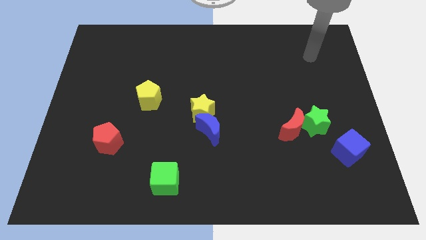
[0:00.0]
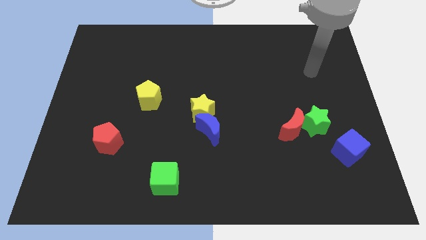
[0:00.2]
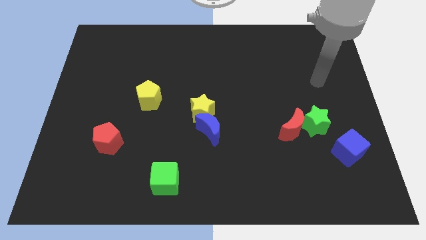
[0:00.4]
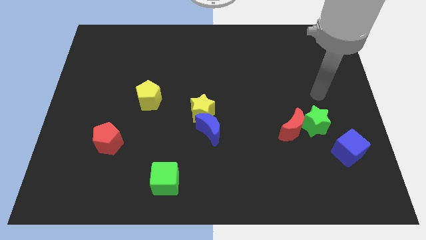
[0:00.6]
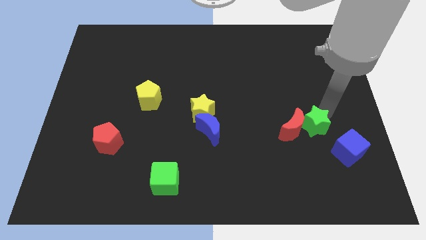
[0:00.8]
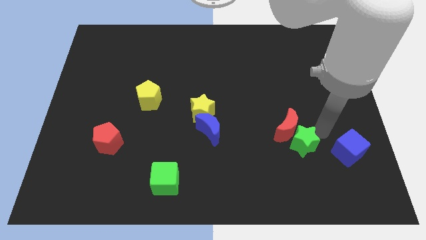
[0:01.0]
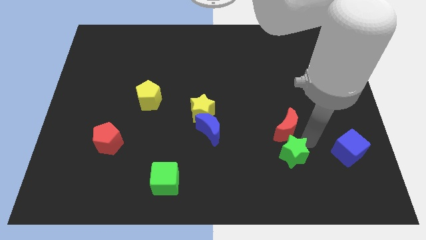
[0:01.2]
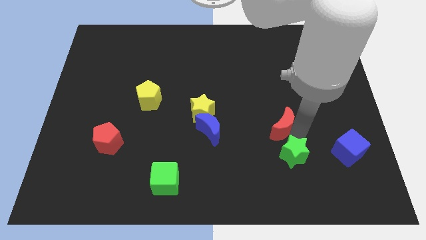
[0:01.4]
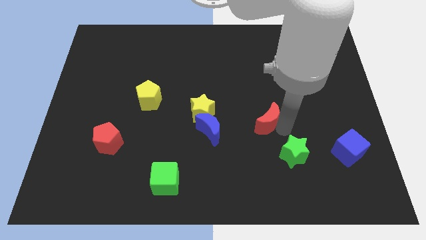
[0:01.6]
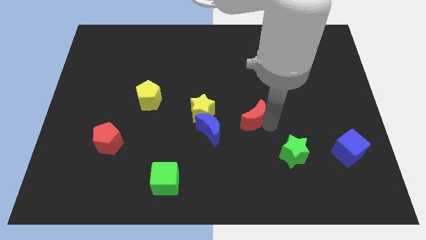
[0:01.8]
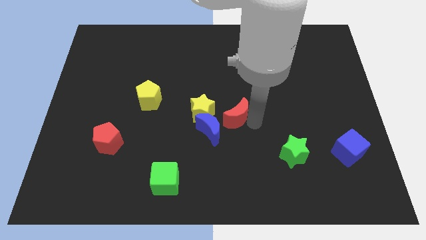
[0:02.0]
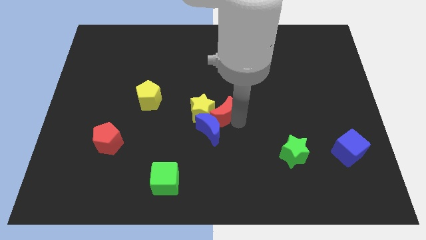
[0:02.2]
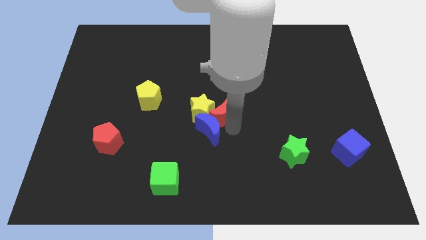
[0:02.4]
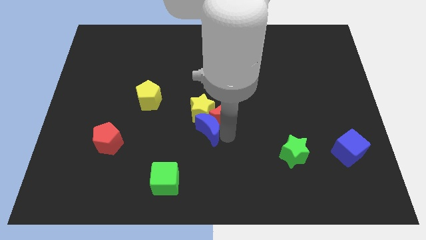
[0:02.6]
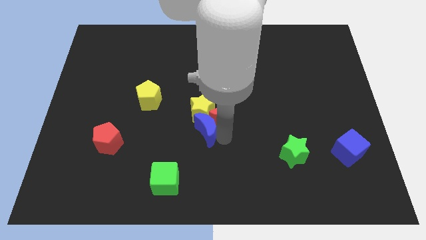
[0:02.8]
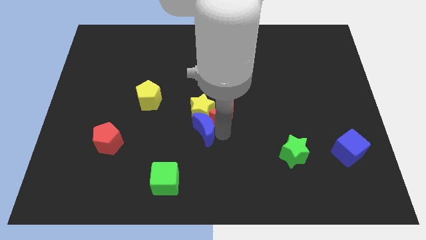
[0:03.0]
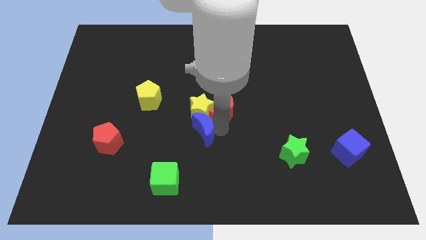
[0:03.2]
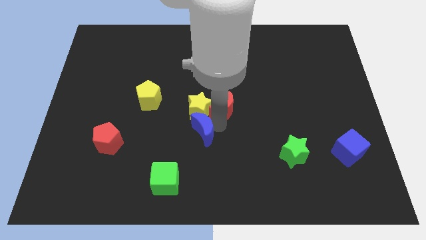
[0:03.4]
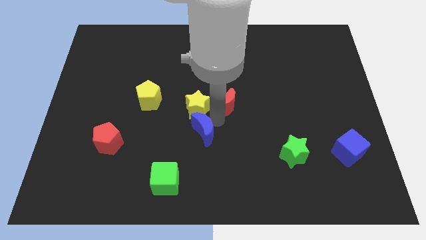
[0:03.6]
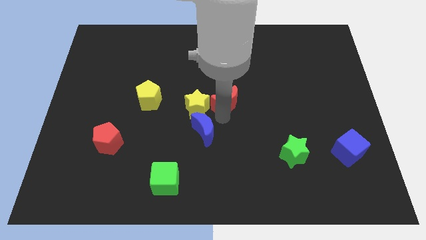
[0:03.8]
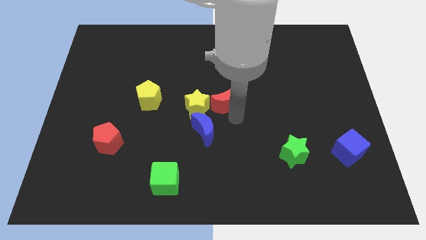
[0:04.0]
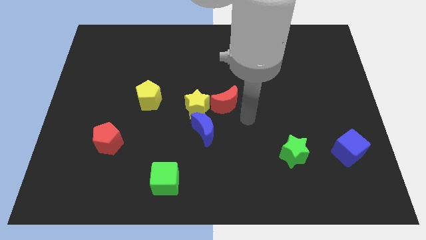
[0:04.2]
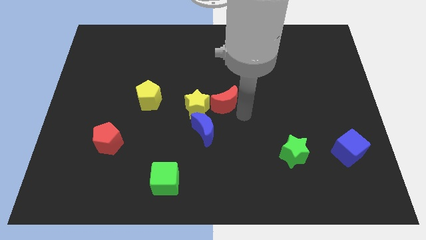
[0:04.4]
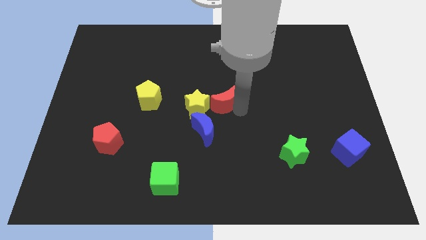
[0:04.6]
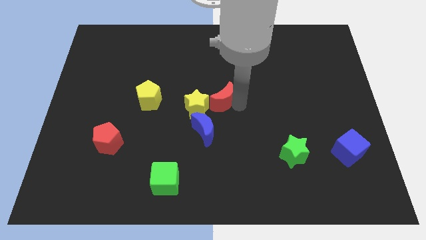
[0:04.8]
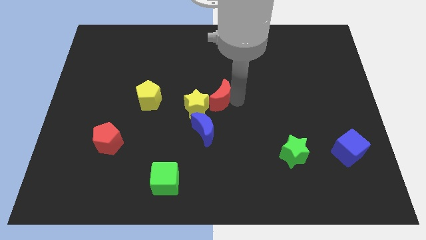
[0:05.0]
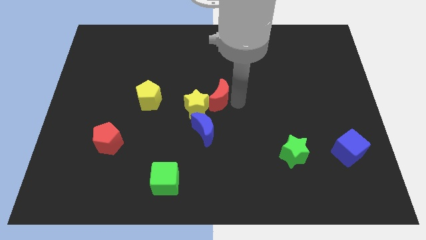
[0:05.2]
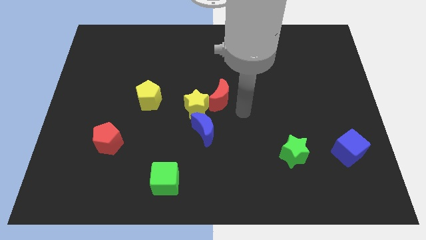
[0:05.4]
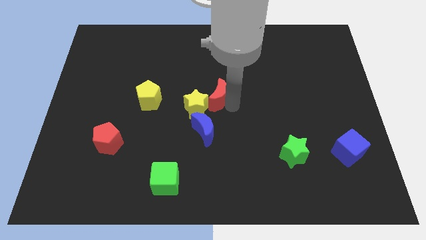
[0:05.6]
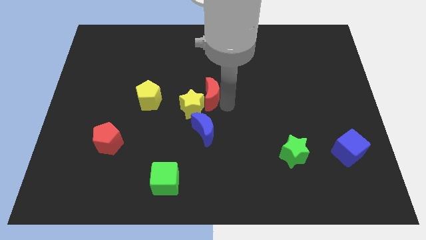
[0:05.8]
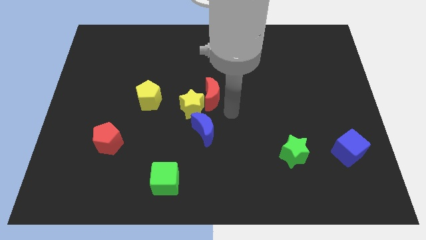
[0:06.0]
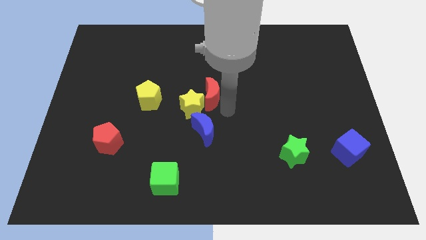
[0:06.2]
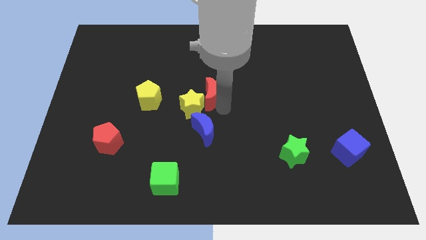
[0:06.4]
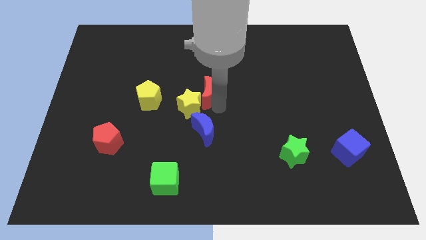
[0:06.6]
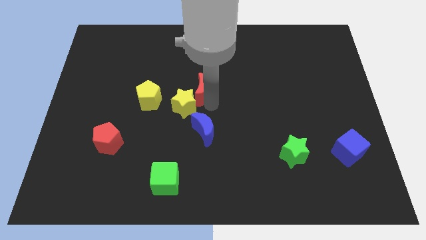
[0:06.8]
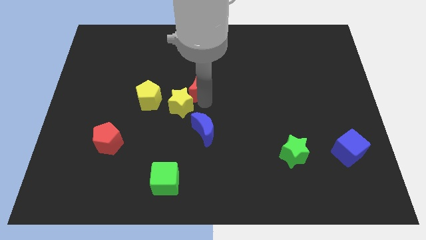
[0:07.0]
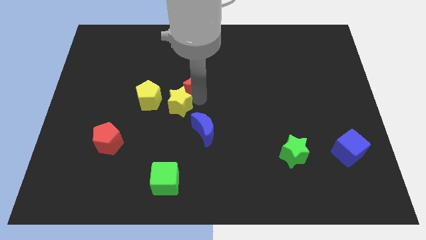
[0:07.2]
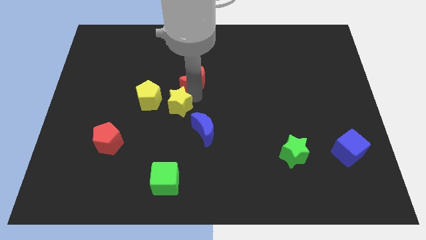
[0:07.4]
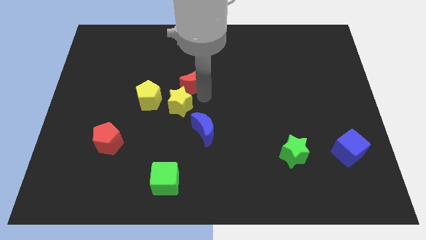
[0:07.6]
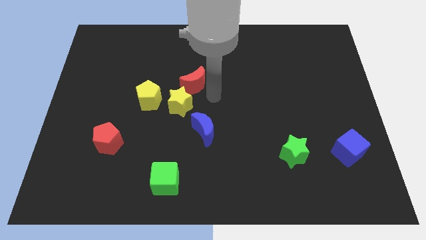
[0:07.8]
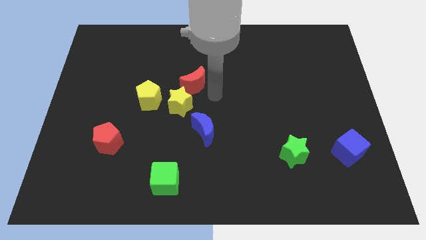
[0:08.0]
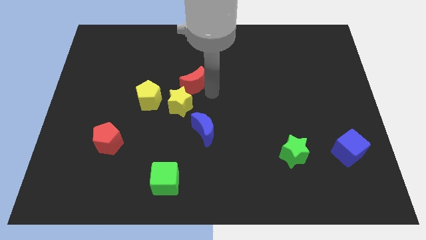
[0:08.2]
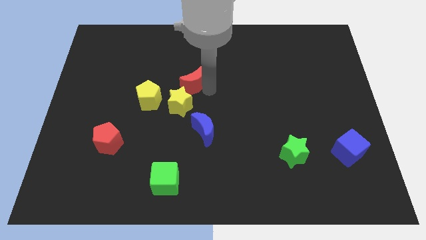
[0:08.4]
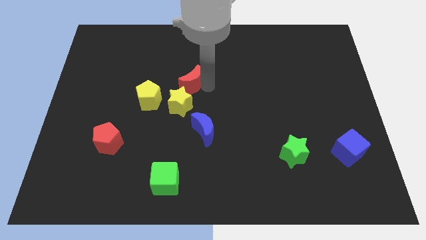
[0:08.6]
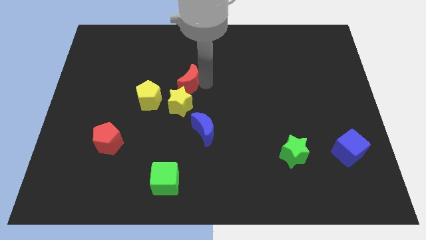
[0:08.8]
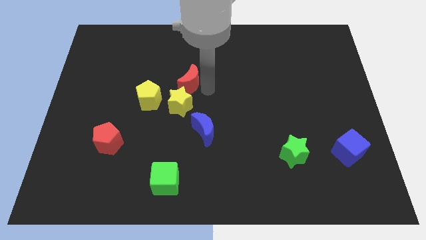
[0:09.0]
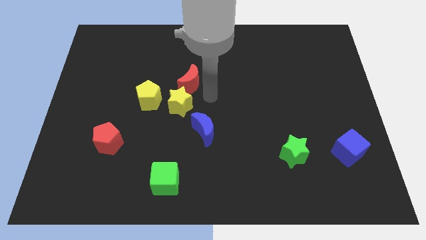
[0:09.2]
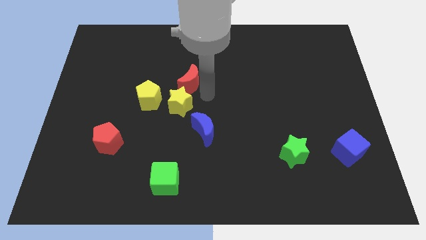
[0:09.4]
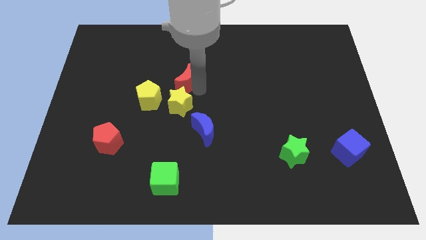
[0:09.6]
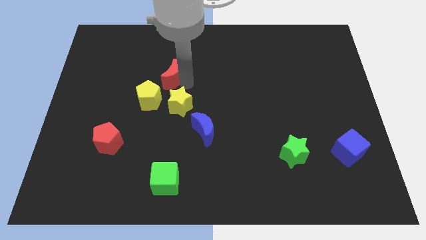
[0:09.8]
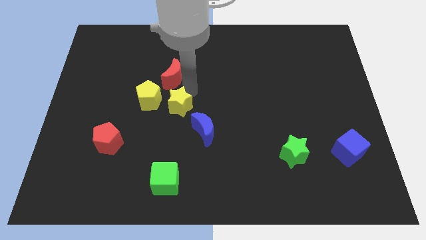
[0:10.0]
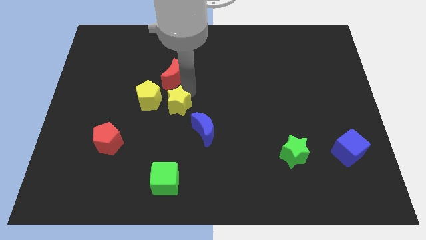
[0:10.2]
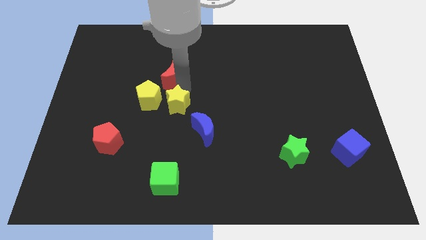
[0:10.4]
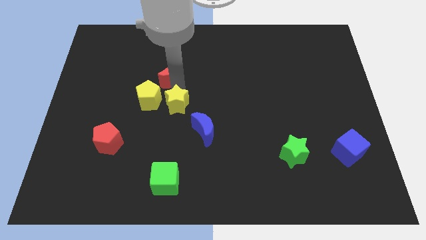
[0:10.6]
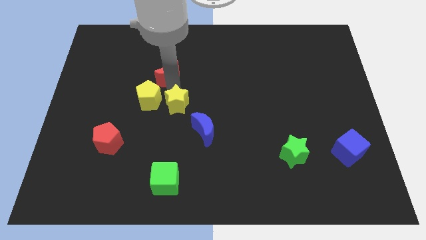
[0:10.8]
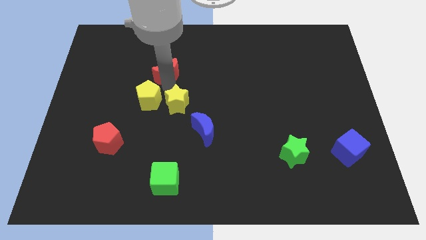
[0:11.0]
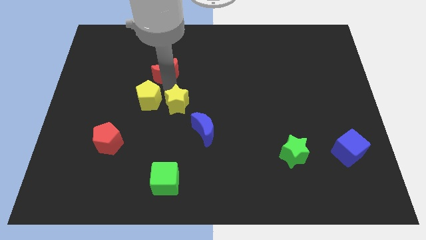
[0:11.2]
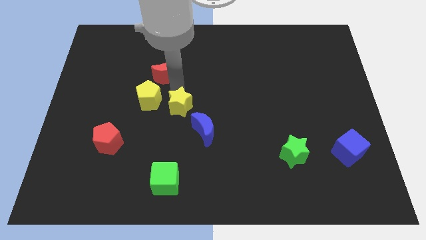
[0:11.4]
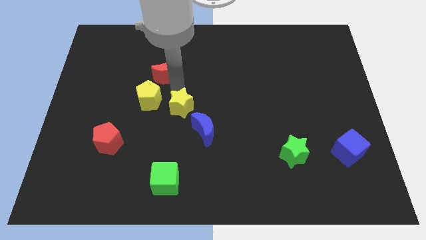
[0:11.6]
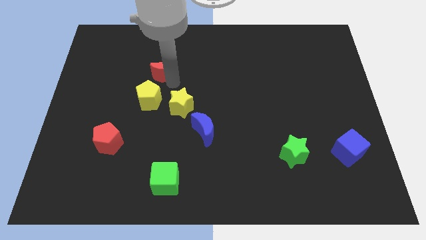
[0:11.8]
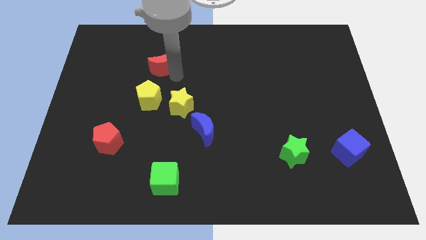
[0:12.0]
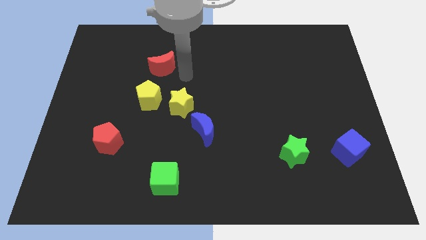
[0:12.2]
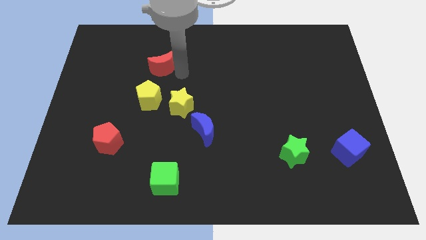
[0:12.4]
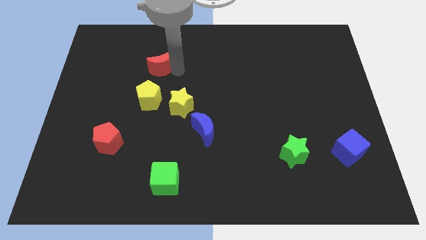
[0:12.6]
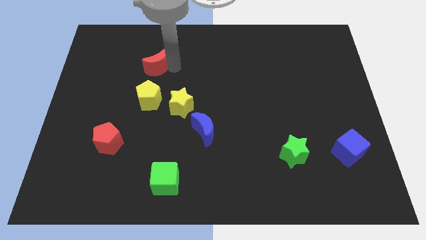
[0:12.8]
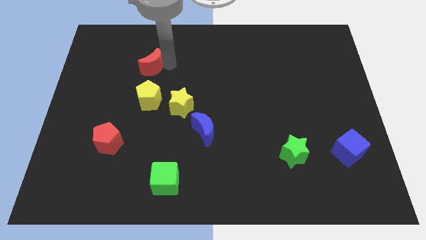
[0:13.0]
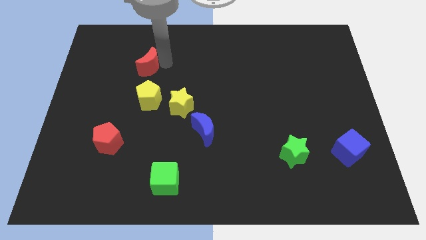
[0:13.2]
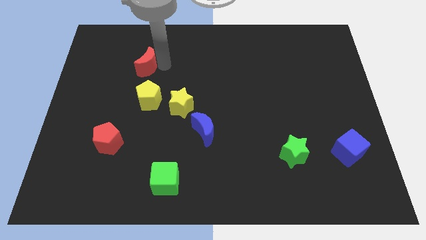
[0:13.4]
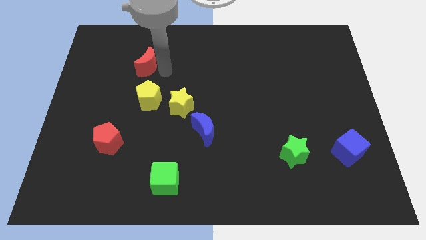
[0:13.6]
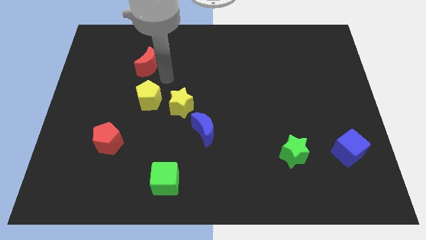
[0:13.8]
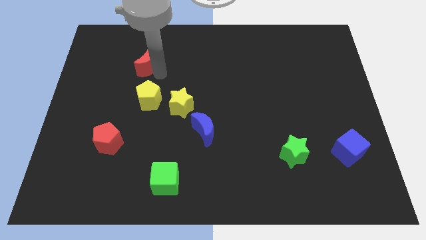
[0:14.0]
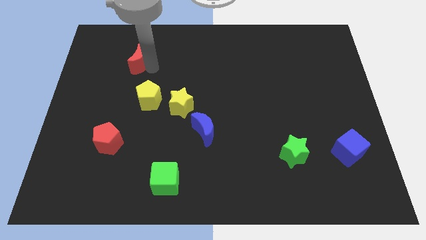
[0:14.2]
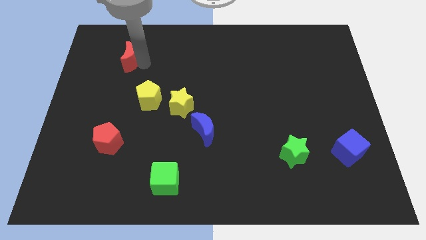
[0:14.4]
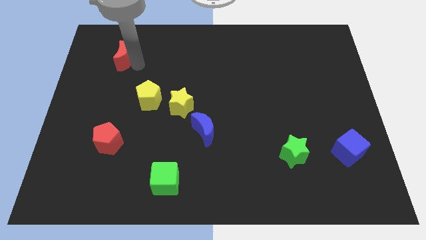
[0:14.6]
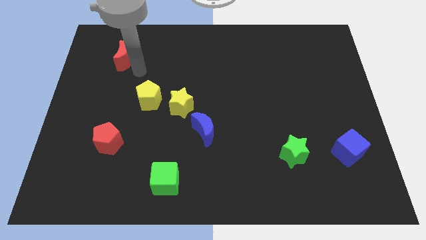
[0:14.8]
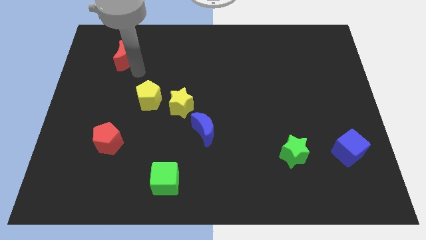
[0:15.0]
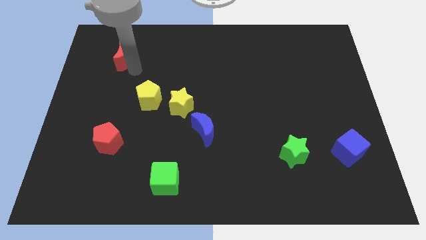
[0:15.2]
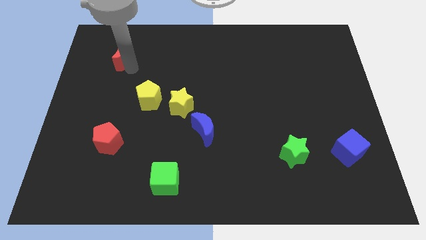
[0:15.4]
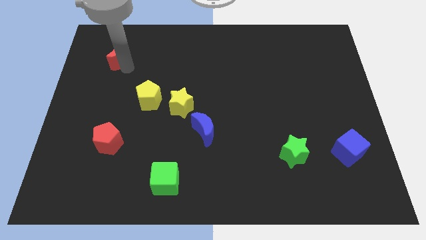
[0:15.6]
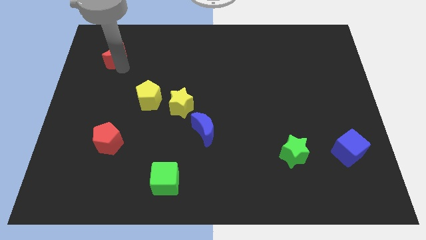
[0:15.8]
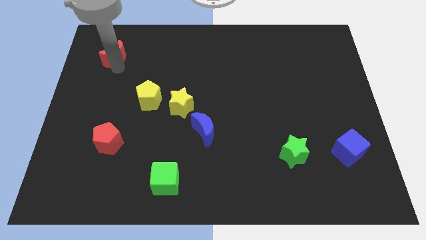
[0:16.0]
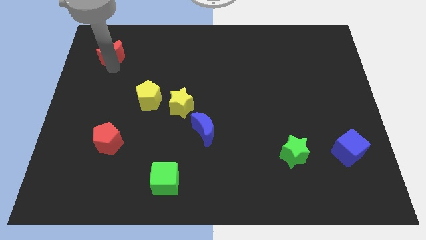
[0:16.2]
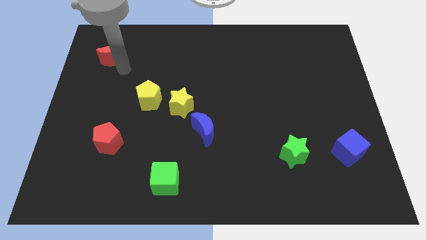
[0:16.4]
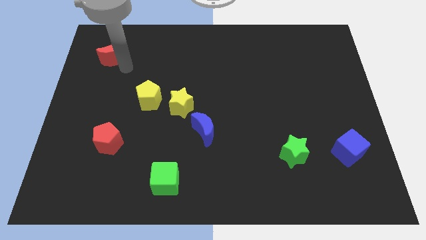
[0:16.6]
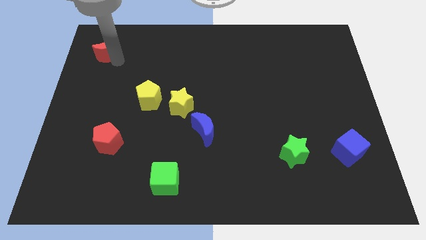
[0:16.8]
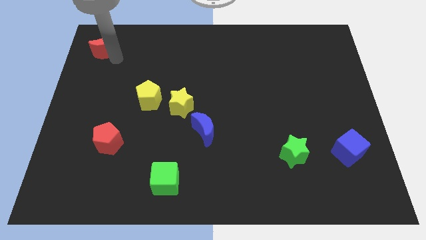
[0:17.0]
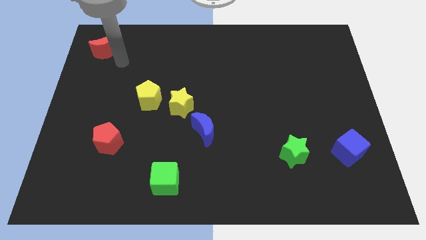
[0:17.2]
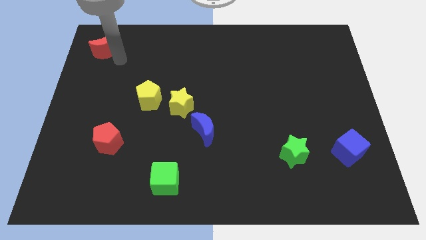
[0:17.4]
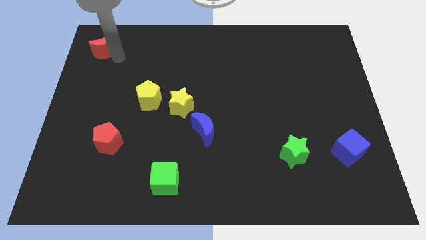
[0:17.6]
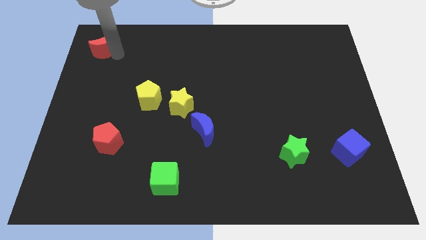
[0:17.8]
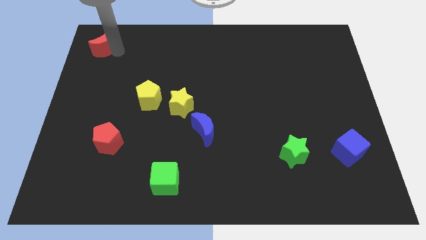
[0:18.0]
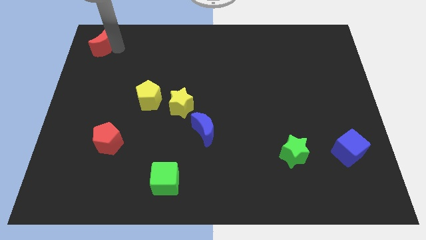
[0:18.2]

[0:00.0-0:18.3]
slide the red moon to the upper left corner
